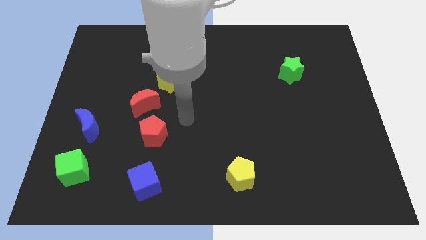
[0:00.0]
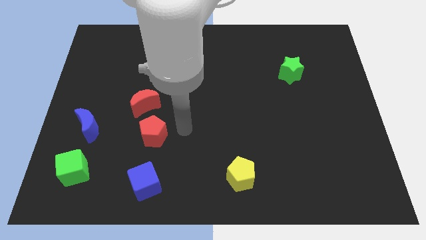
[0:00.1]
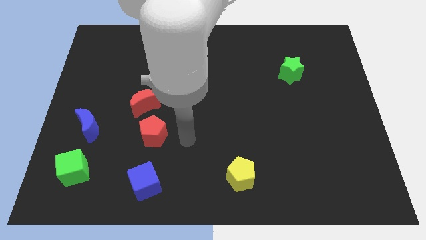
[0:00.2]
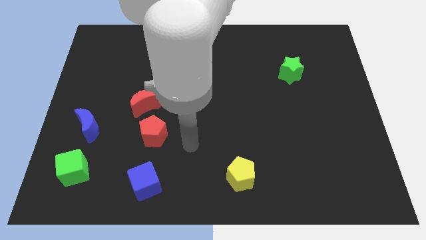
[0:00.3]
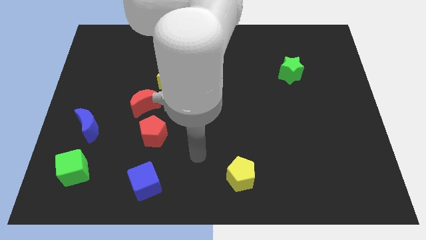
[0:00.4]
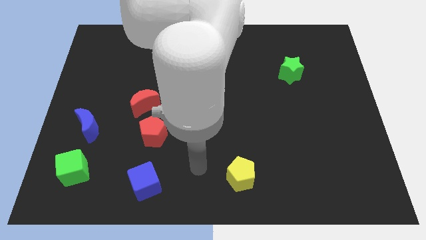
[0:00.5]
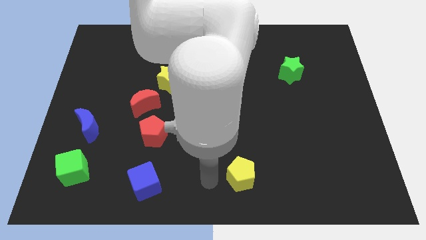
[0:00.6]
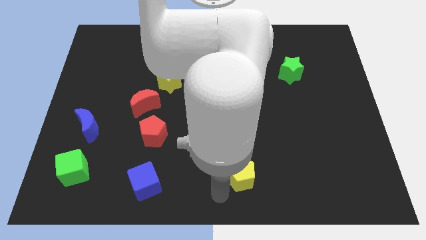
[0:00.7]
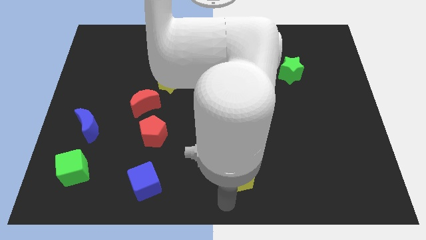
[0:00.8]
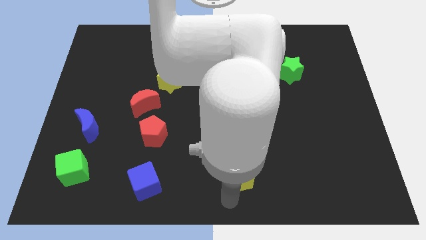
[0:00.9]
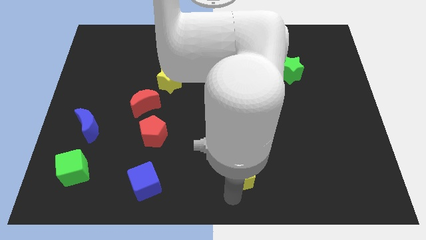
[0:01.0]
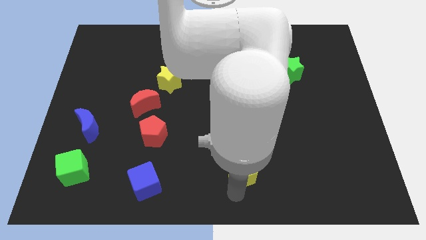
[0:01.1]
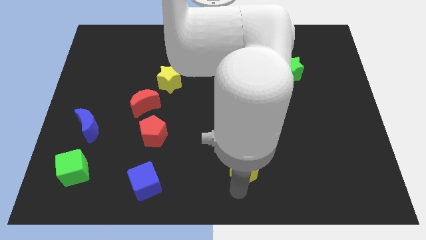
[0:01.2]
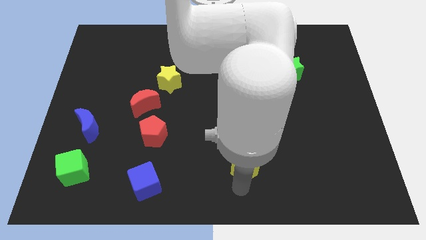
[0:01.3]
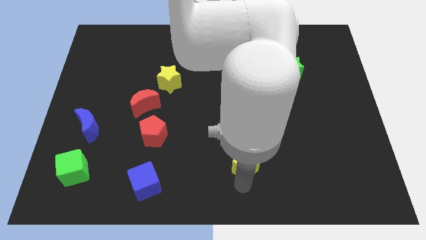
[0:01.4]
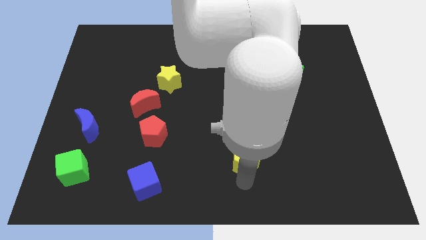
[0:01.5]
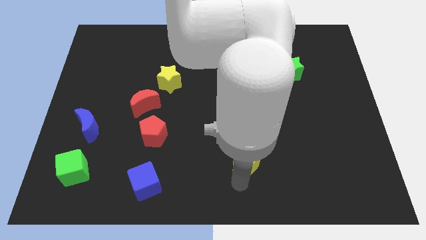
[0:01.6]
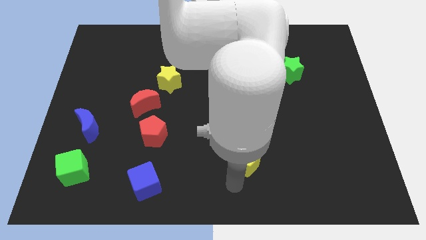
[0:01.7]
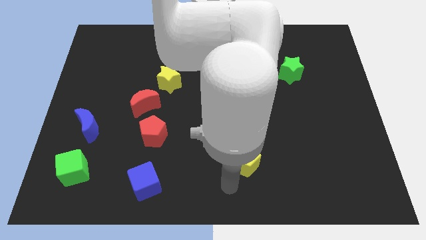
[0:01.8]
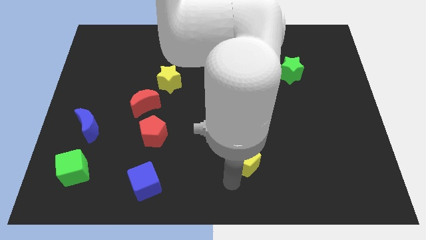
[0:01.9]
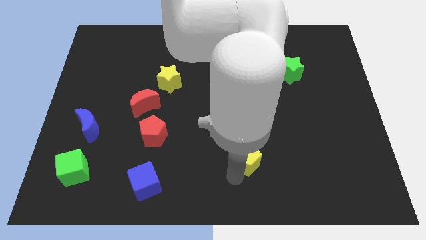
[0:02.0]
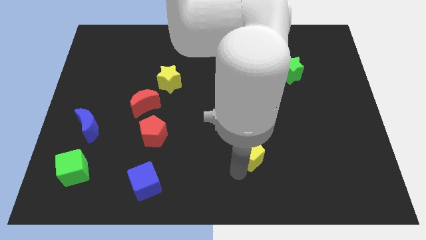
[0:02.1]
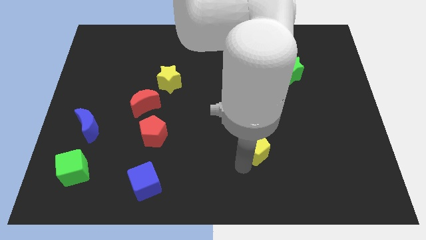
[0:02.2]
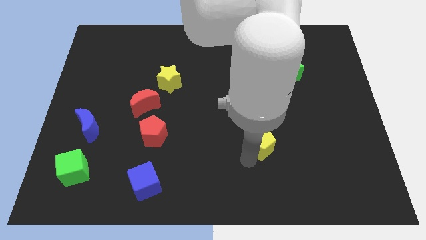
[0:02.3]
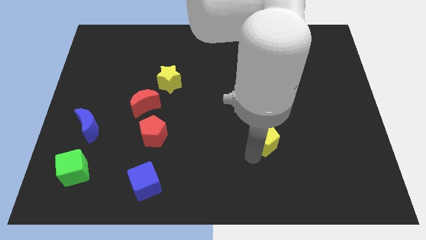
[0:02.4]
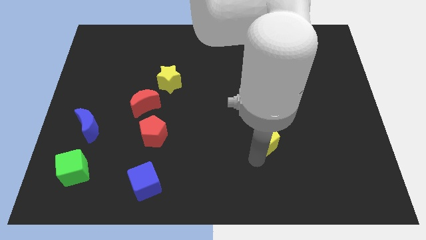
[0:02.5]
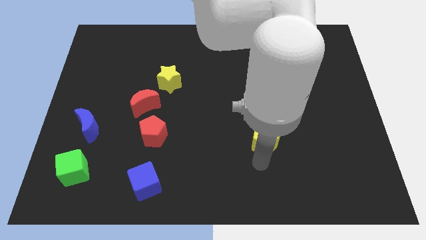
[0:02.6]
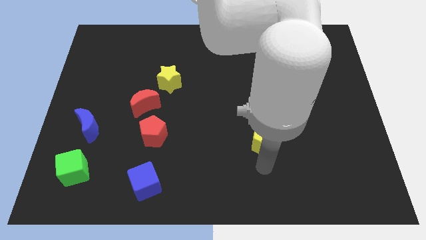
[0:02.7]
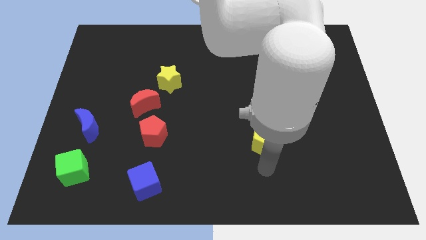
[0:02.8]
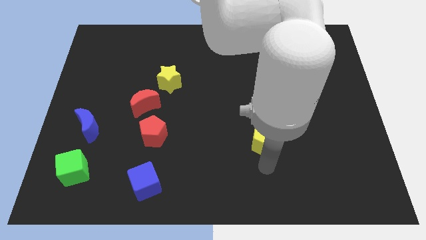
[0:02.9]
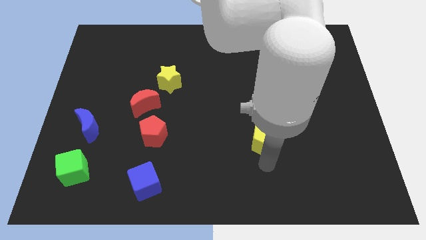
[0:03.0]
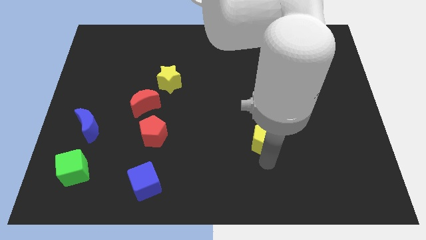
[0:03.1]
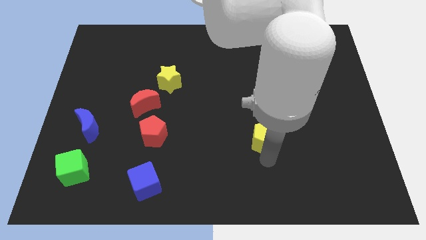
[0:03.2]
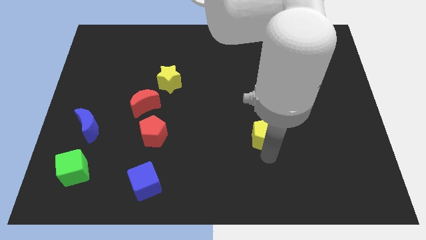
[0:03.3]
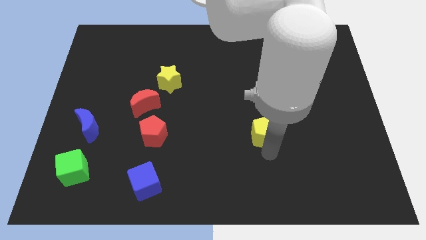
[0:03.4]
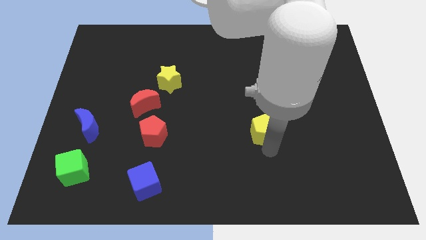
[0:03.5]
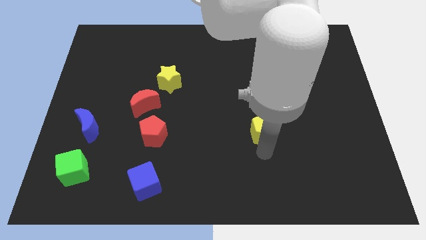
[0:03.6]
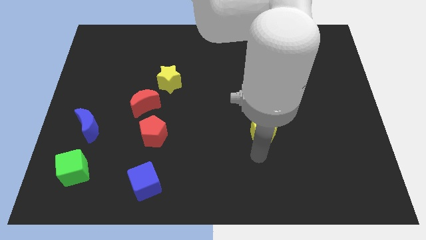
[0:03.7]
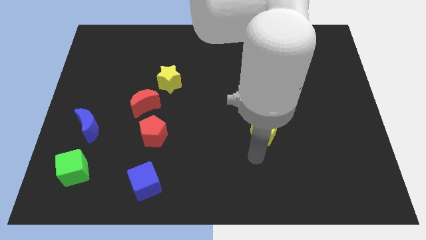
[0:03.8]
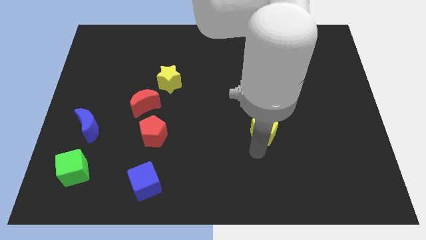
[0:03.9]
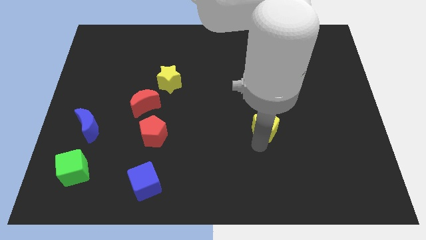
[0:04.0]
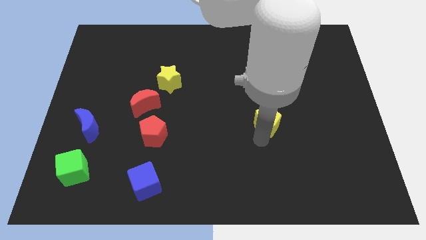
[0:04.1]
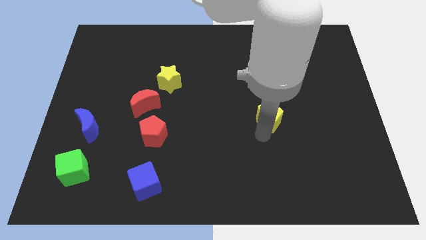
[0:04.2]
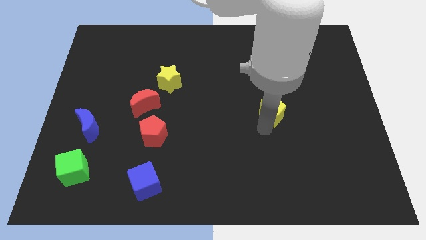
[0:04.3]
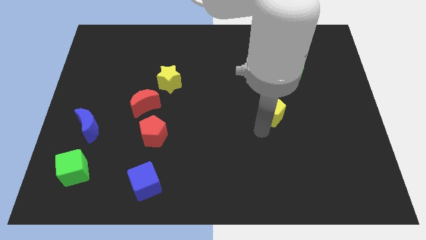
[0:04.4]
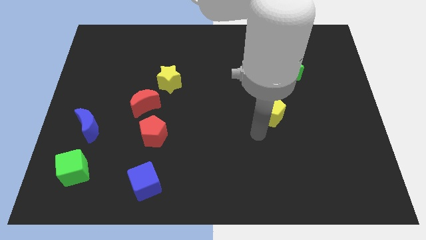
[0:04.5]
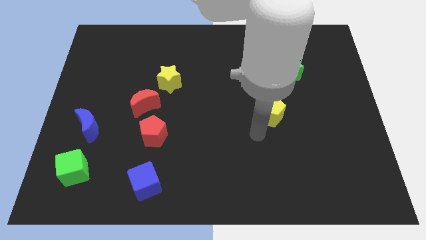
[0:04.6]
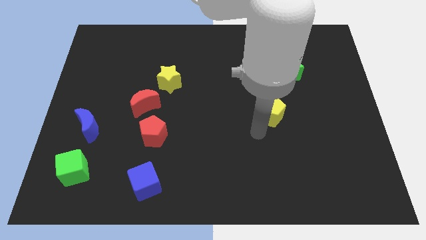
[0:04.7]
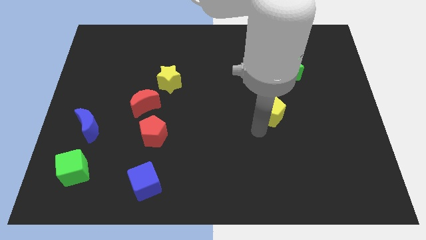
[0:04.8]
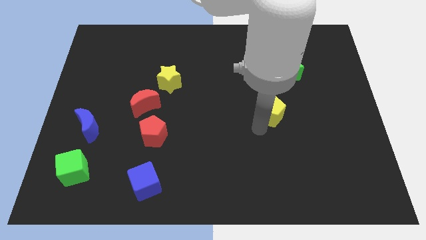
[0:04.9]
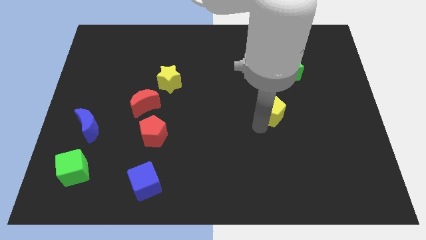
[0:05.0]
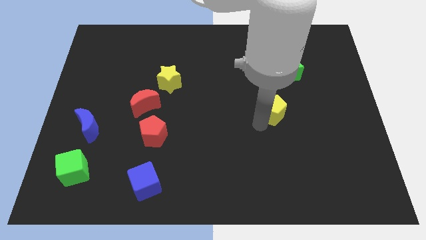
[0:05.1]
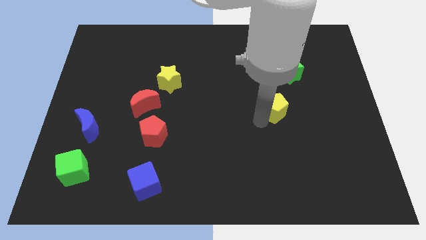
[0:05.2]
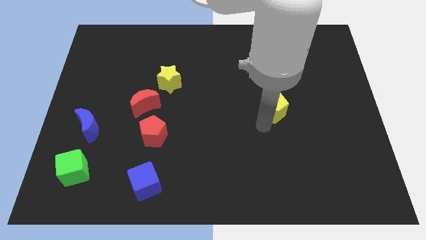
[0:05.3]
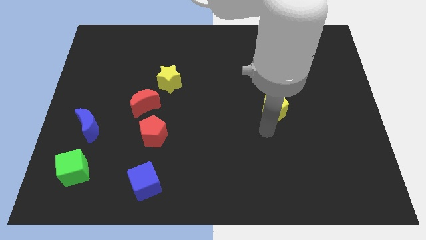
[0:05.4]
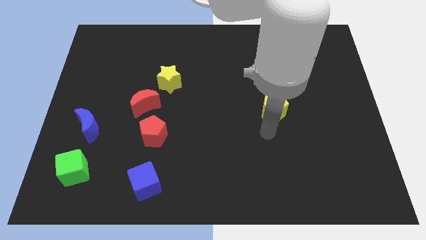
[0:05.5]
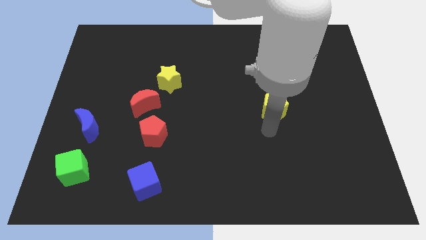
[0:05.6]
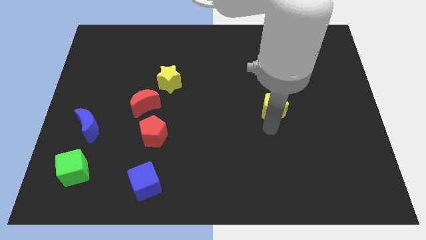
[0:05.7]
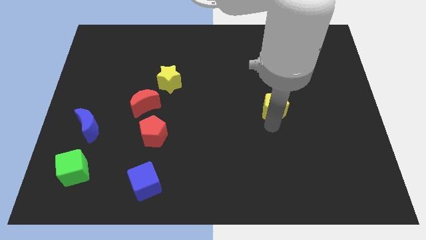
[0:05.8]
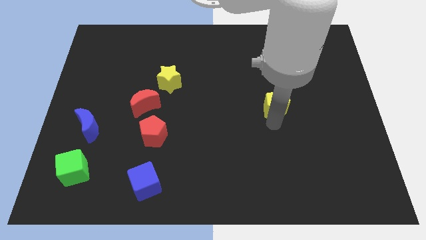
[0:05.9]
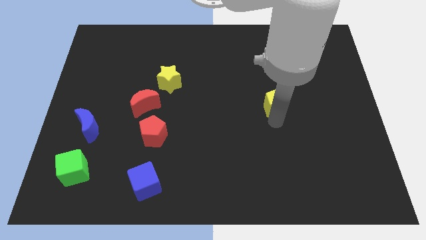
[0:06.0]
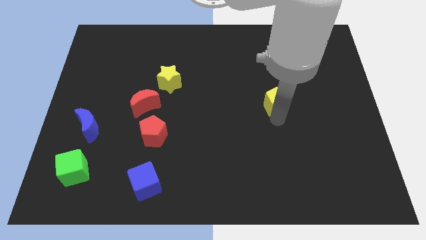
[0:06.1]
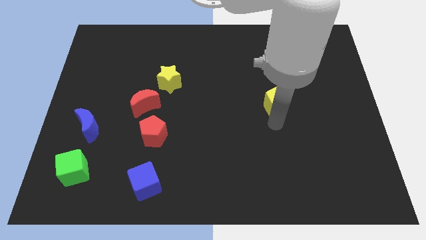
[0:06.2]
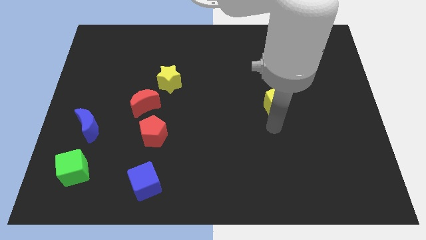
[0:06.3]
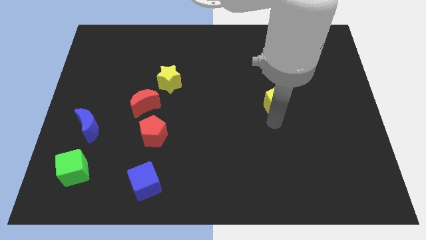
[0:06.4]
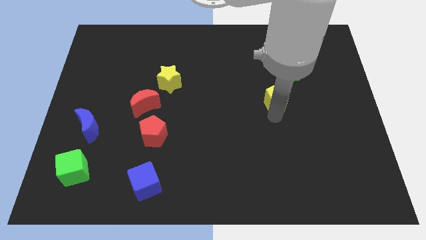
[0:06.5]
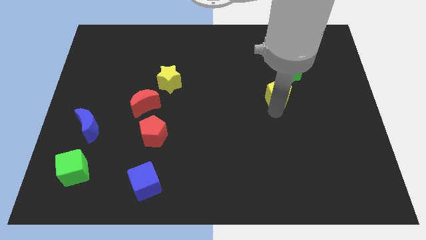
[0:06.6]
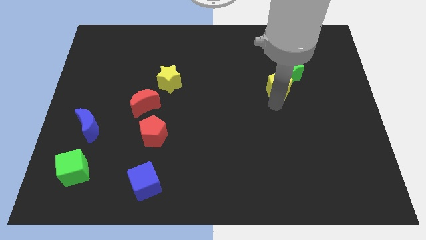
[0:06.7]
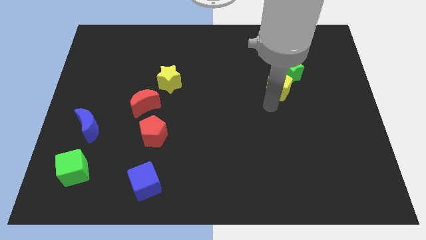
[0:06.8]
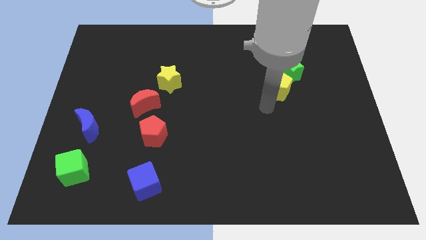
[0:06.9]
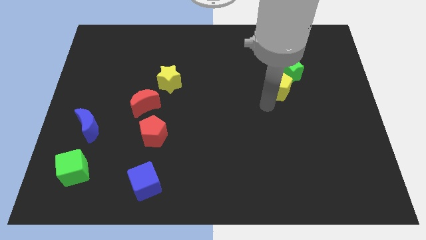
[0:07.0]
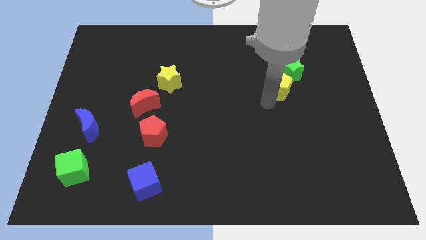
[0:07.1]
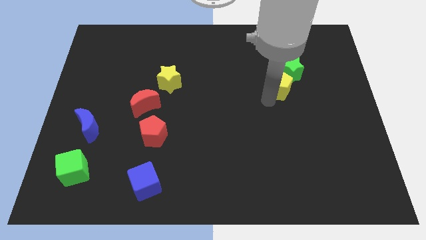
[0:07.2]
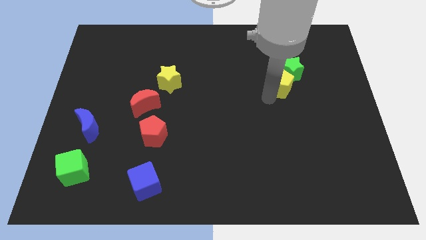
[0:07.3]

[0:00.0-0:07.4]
push the yellow pentagon to the green star
